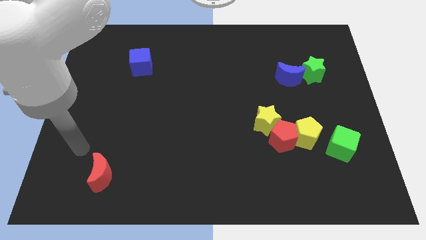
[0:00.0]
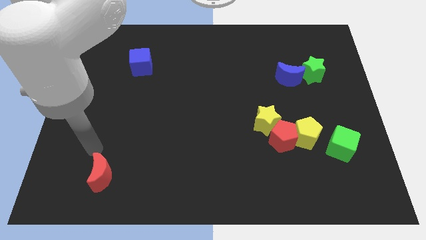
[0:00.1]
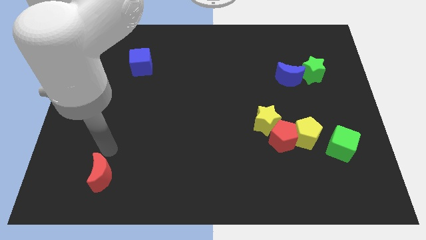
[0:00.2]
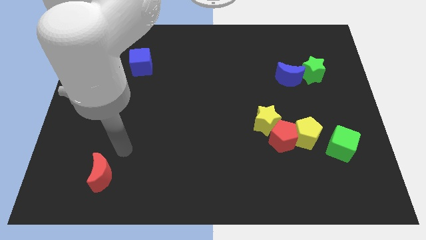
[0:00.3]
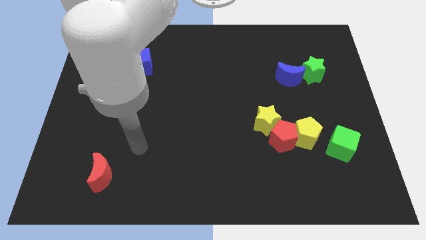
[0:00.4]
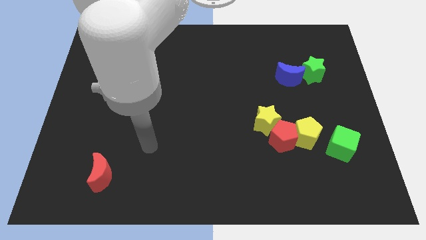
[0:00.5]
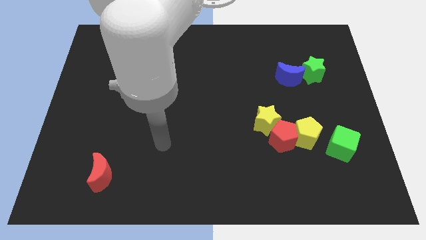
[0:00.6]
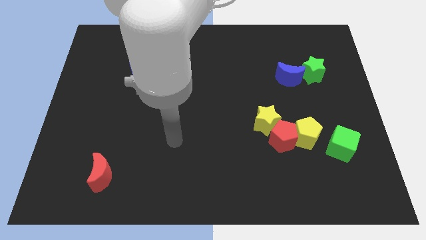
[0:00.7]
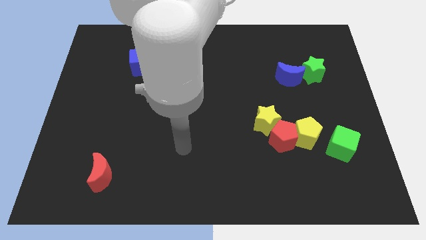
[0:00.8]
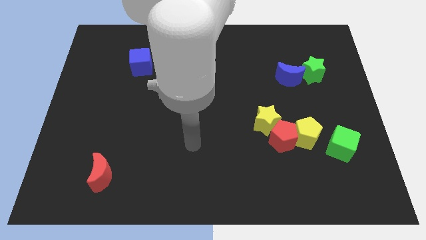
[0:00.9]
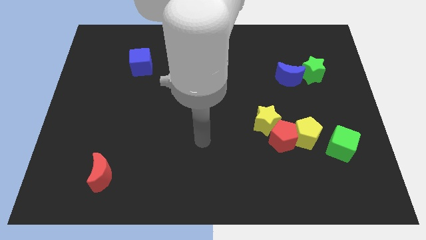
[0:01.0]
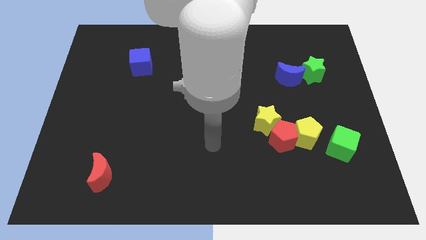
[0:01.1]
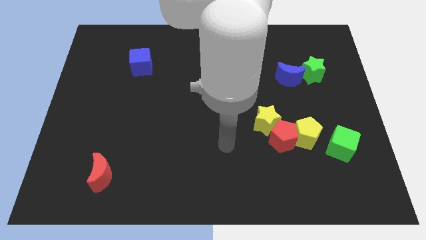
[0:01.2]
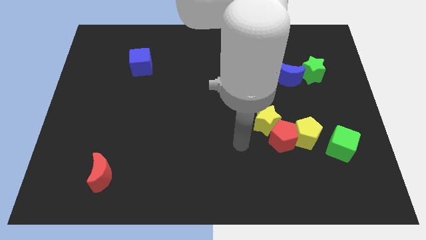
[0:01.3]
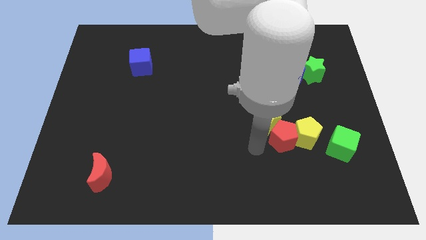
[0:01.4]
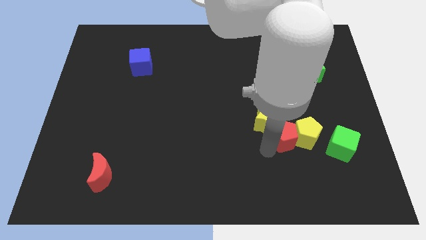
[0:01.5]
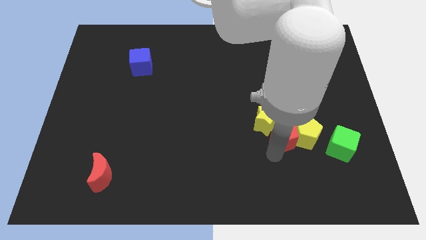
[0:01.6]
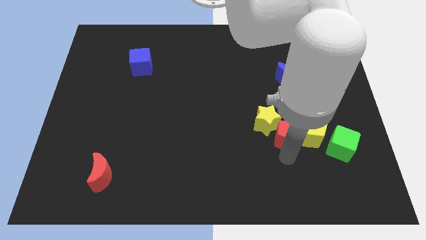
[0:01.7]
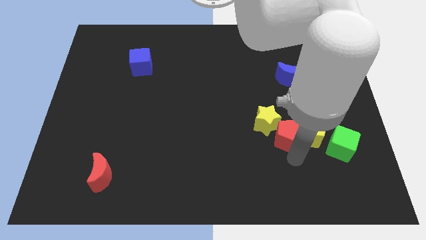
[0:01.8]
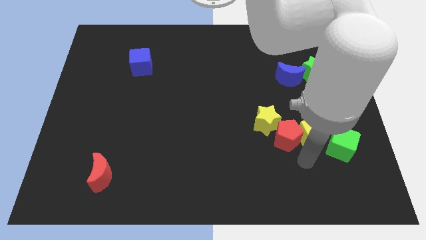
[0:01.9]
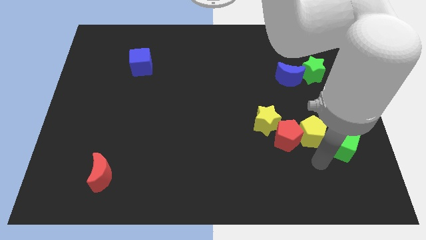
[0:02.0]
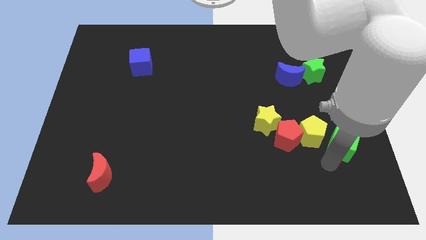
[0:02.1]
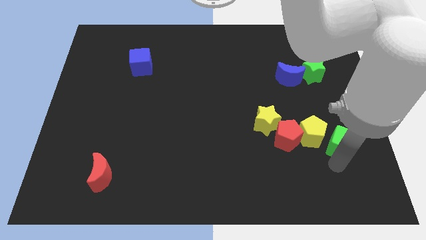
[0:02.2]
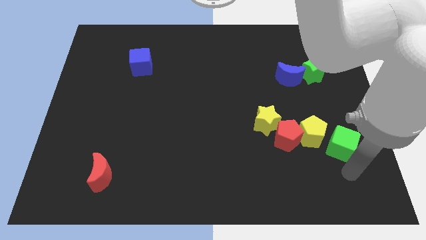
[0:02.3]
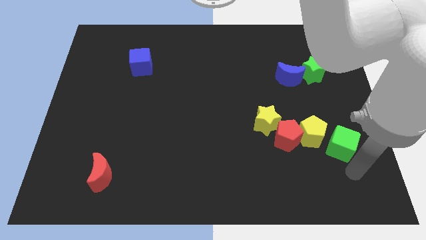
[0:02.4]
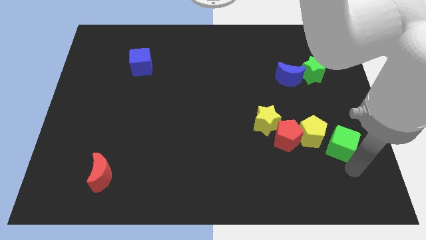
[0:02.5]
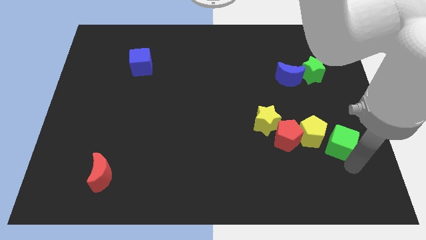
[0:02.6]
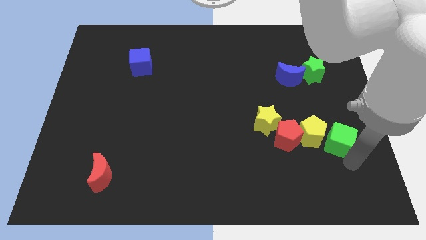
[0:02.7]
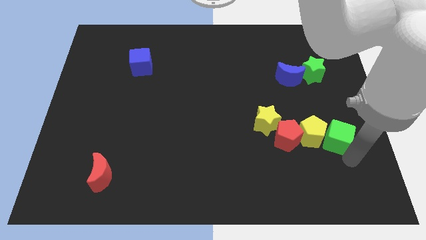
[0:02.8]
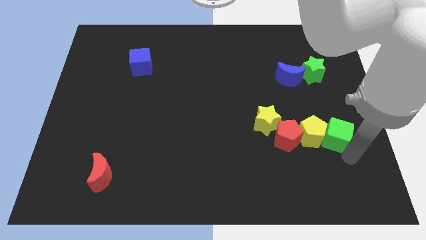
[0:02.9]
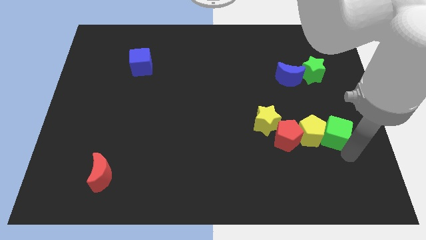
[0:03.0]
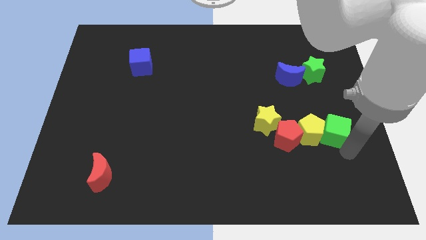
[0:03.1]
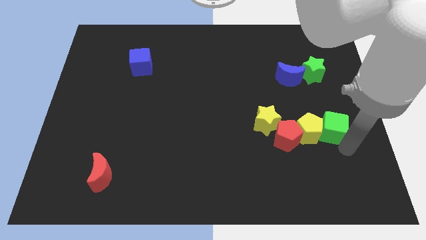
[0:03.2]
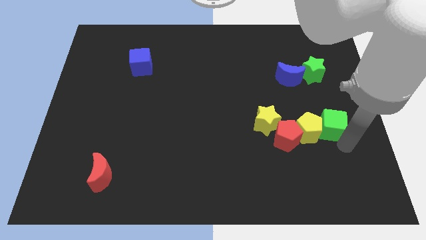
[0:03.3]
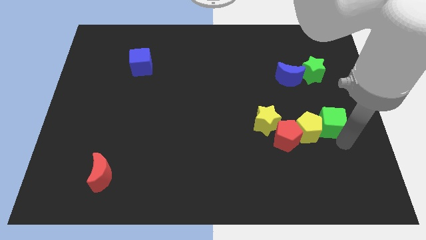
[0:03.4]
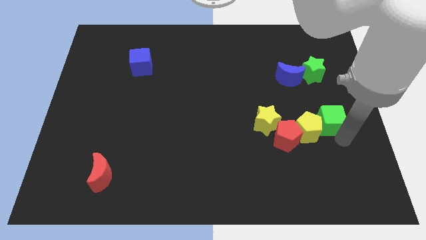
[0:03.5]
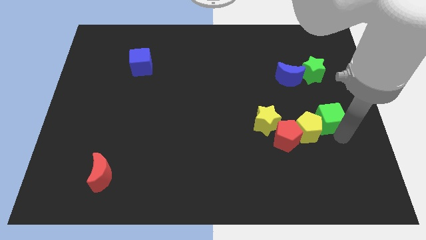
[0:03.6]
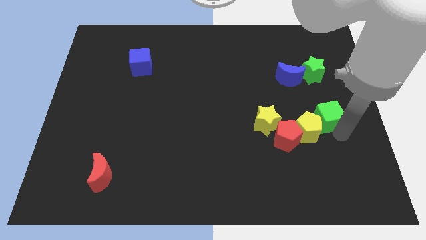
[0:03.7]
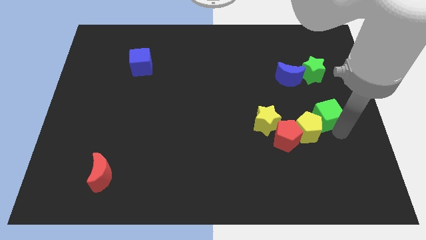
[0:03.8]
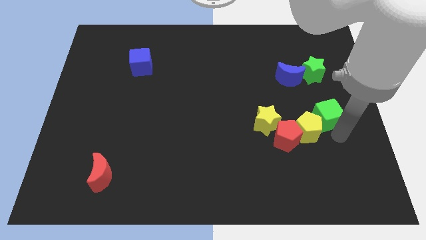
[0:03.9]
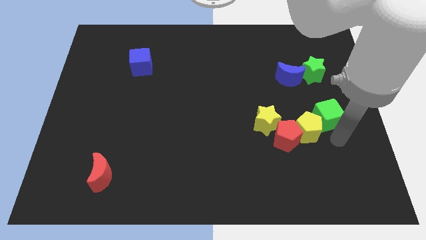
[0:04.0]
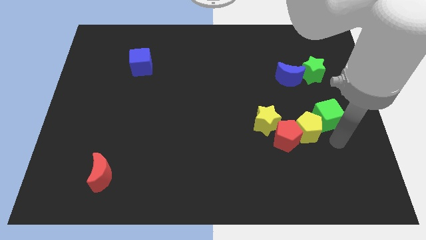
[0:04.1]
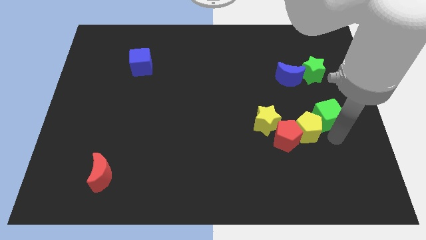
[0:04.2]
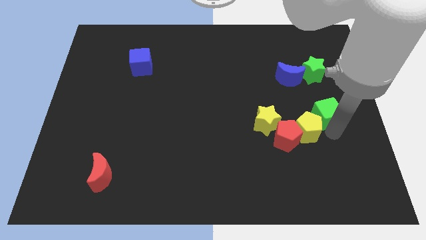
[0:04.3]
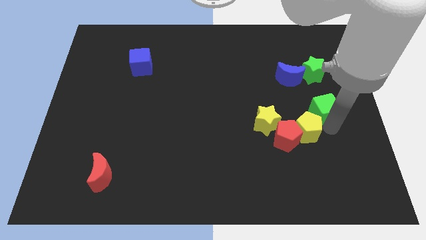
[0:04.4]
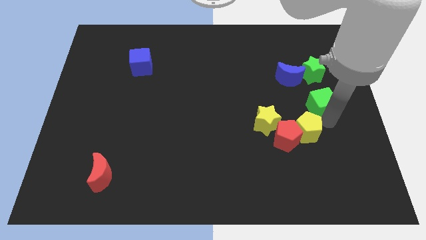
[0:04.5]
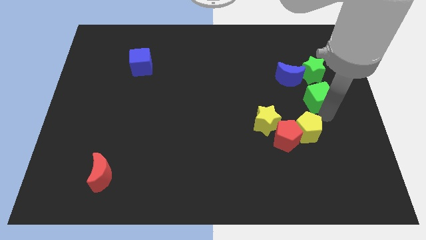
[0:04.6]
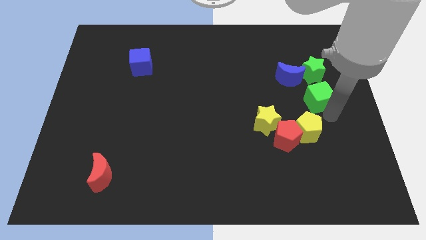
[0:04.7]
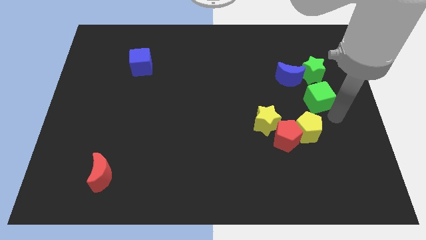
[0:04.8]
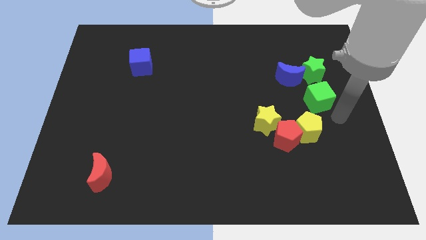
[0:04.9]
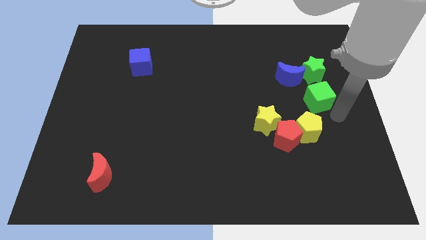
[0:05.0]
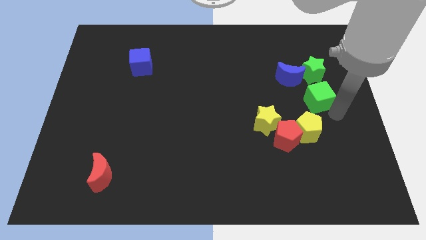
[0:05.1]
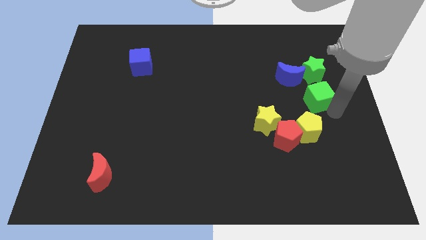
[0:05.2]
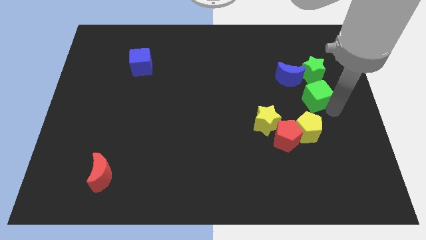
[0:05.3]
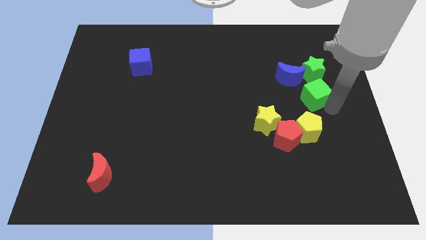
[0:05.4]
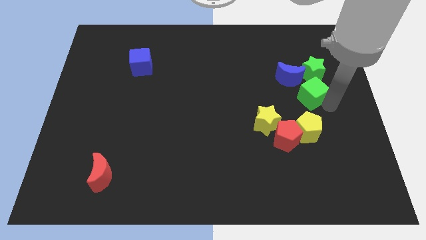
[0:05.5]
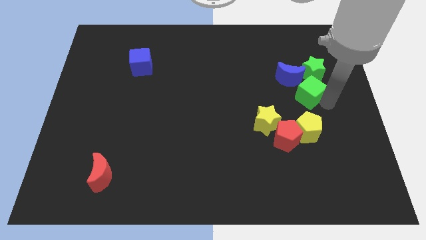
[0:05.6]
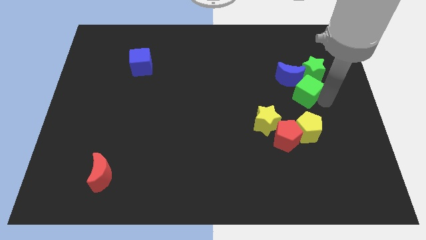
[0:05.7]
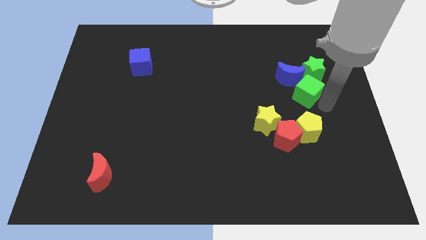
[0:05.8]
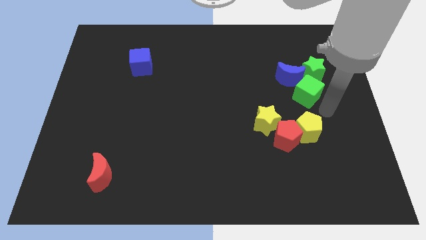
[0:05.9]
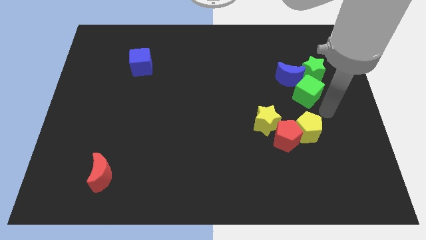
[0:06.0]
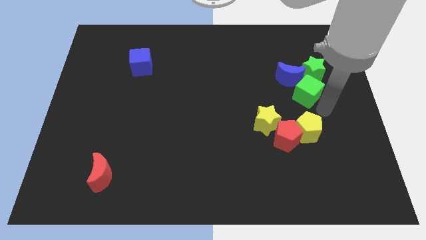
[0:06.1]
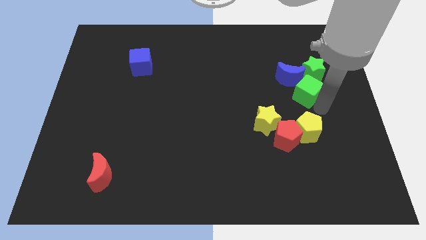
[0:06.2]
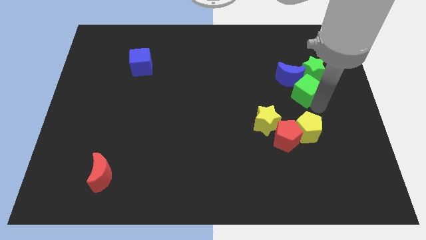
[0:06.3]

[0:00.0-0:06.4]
push the green cube to the blue moon

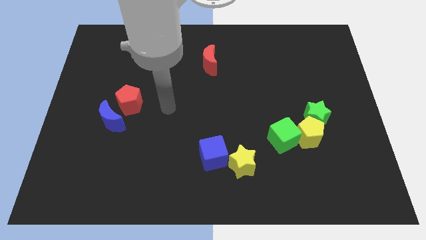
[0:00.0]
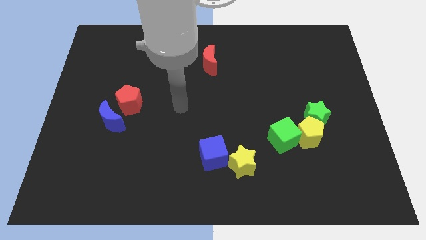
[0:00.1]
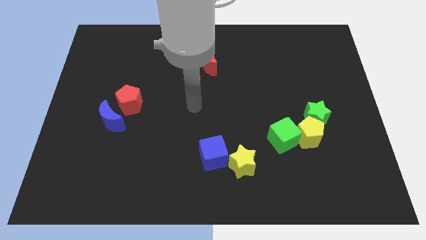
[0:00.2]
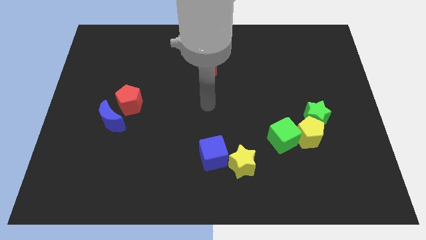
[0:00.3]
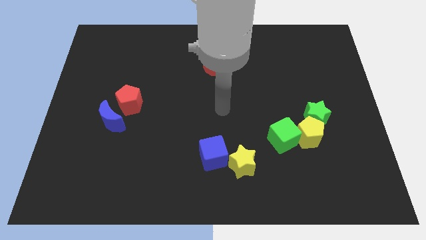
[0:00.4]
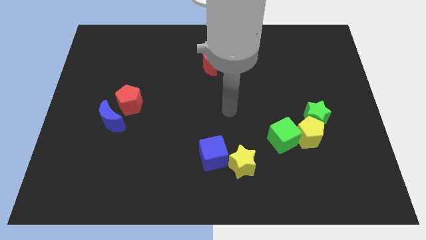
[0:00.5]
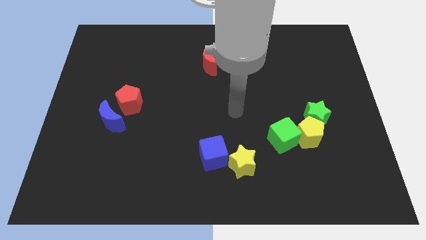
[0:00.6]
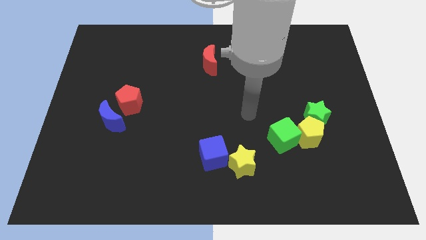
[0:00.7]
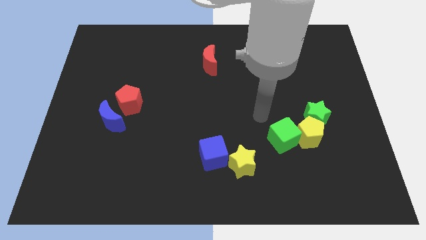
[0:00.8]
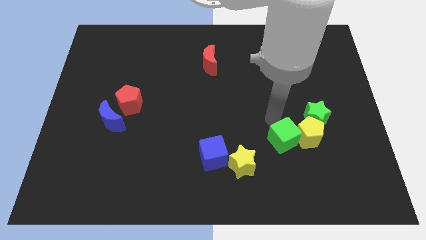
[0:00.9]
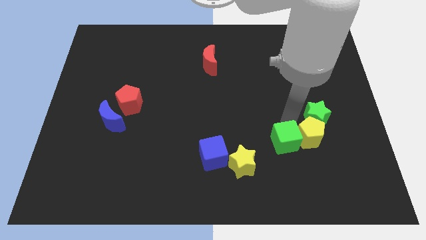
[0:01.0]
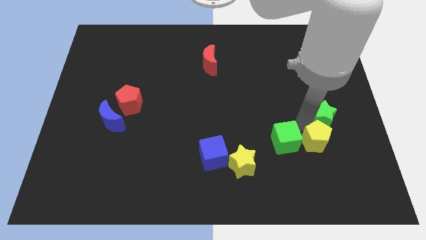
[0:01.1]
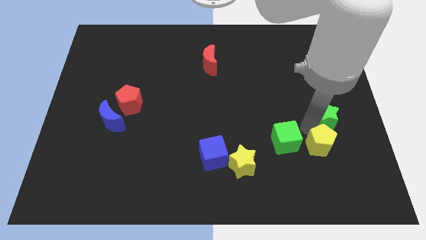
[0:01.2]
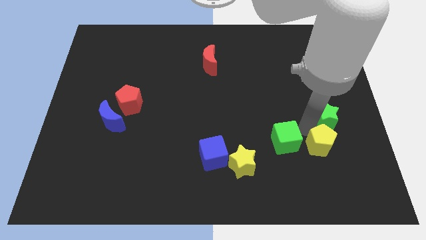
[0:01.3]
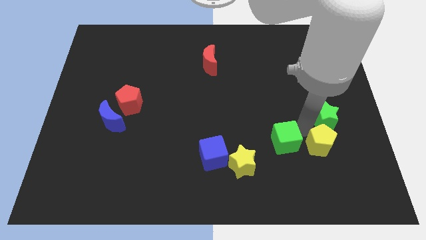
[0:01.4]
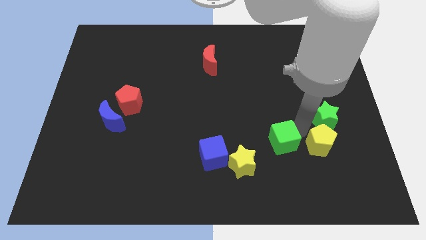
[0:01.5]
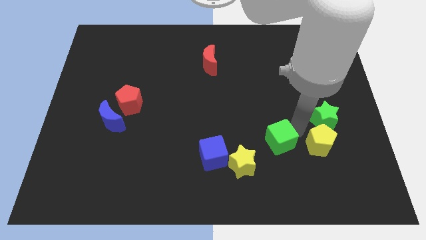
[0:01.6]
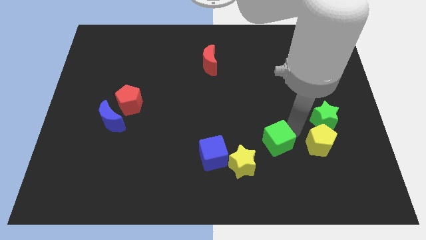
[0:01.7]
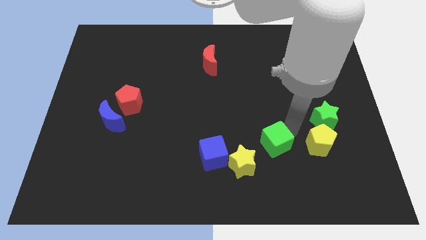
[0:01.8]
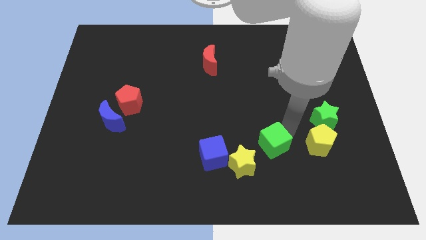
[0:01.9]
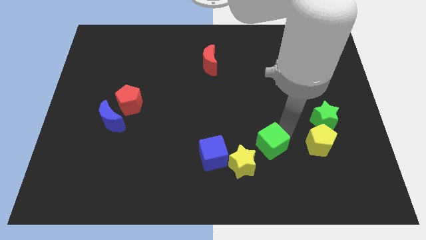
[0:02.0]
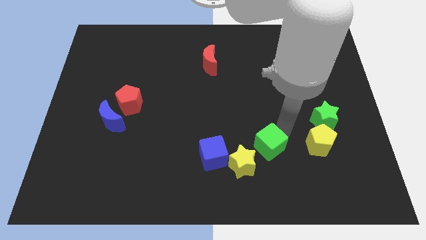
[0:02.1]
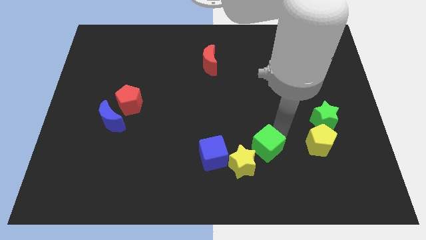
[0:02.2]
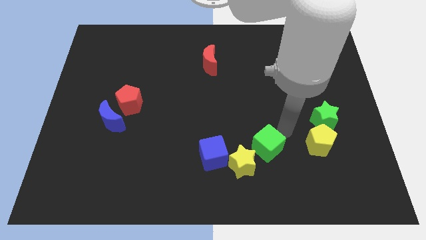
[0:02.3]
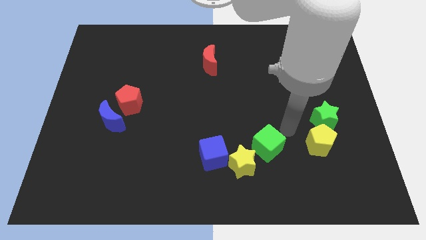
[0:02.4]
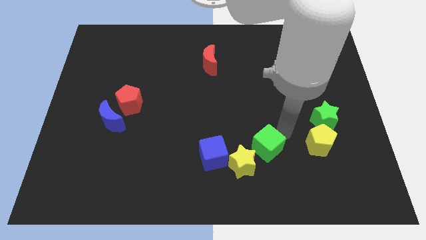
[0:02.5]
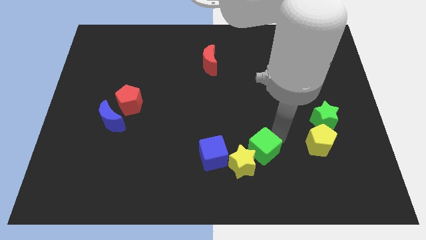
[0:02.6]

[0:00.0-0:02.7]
put the green cube close to the yellow star
